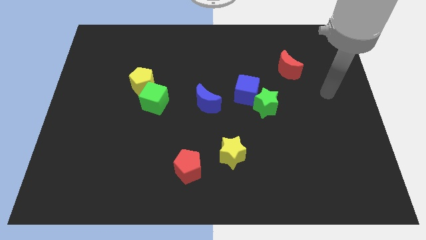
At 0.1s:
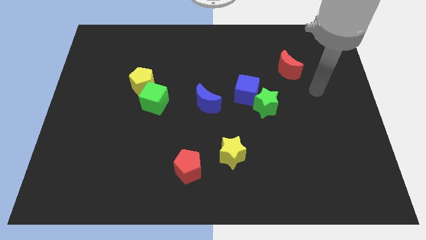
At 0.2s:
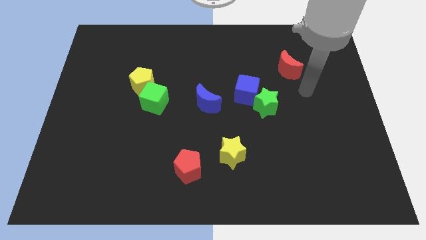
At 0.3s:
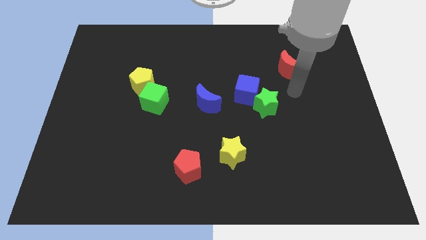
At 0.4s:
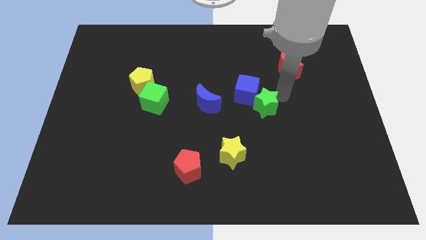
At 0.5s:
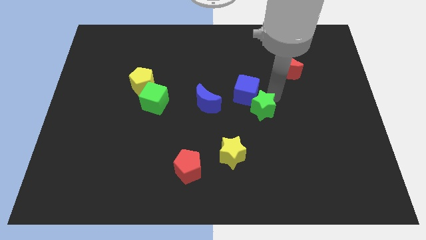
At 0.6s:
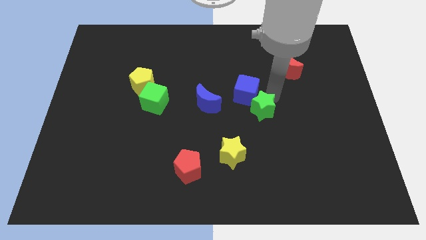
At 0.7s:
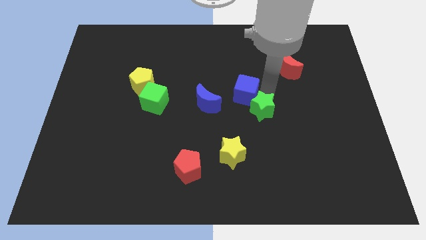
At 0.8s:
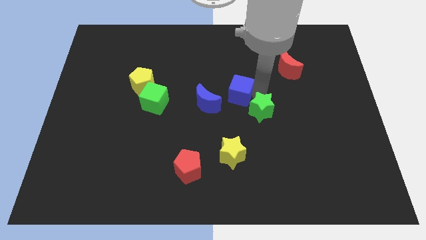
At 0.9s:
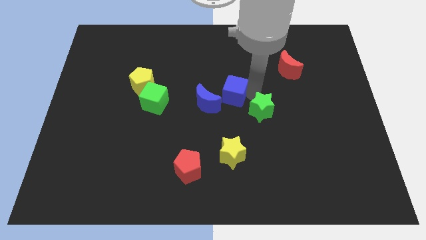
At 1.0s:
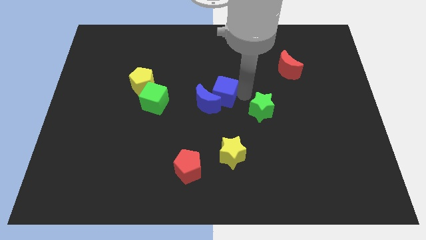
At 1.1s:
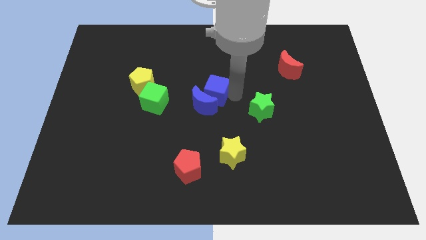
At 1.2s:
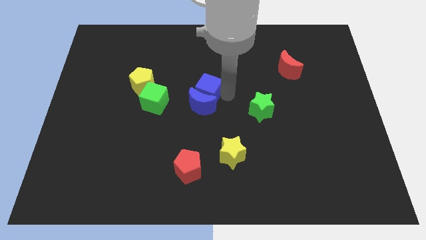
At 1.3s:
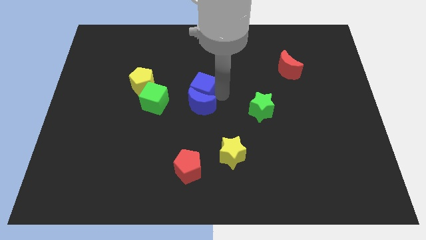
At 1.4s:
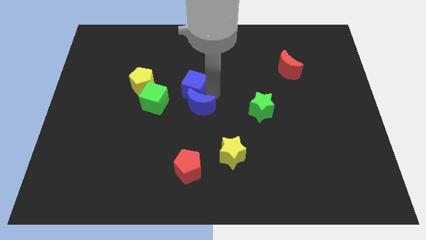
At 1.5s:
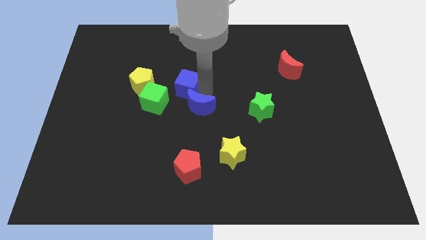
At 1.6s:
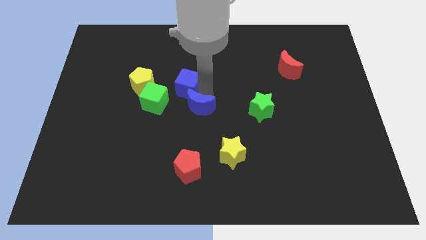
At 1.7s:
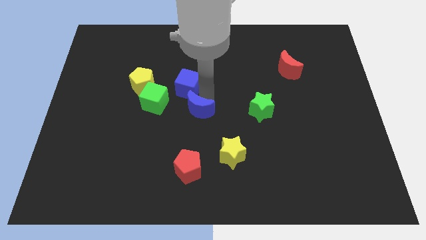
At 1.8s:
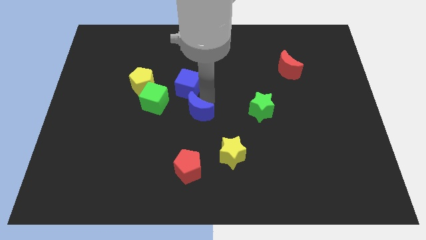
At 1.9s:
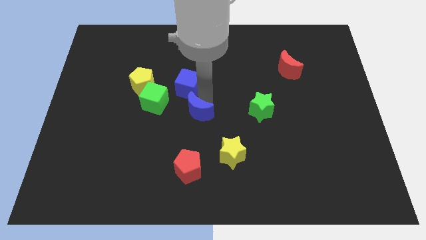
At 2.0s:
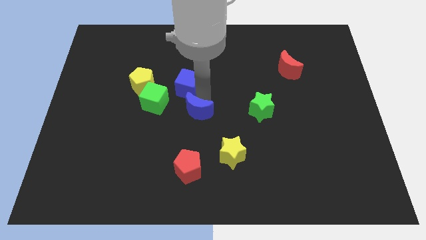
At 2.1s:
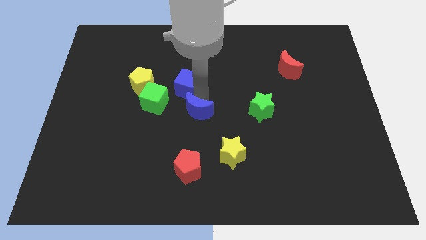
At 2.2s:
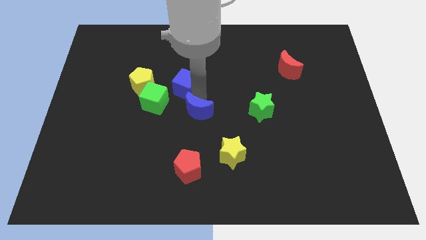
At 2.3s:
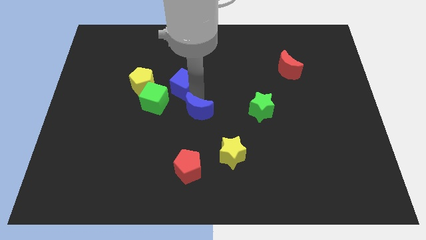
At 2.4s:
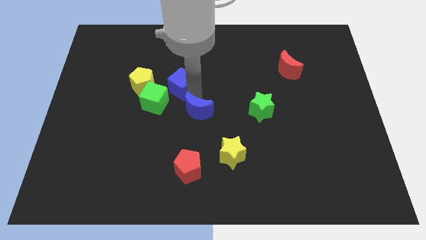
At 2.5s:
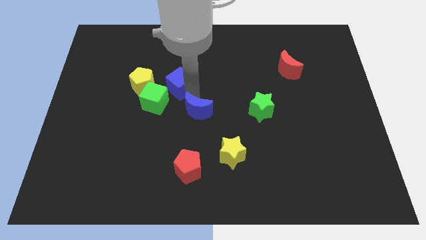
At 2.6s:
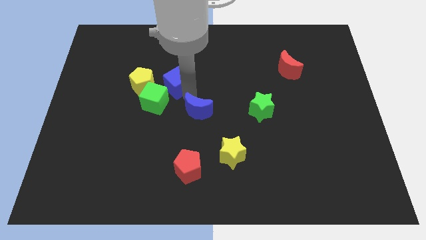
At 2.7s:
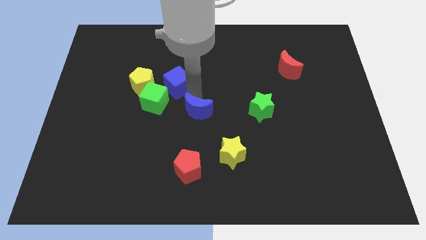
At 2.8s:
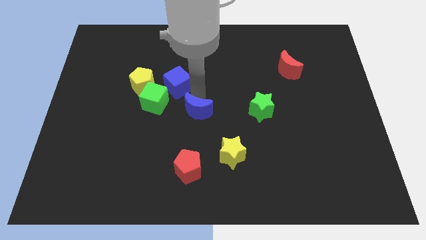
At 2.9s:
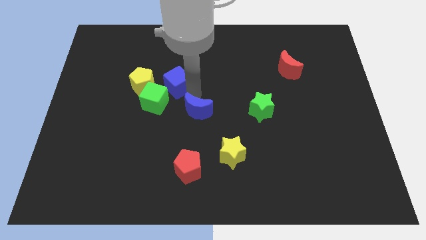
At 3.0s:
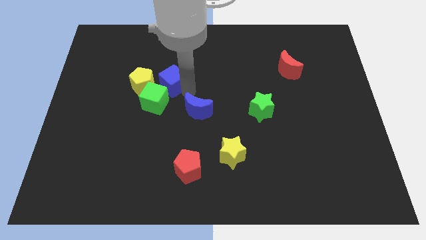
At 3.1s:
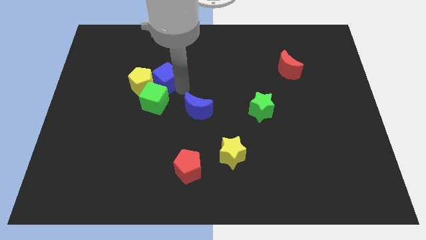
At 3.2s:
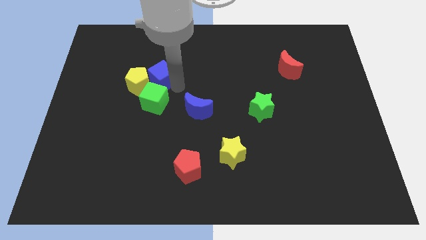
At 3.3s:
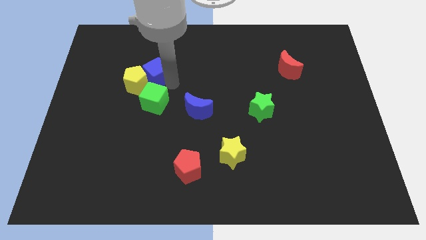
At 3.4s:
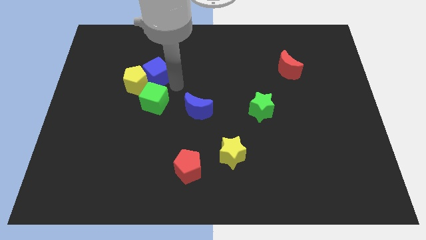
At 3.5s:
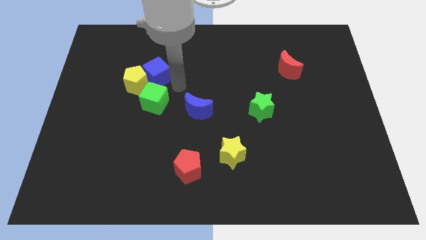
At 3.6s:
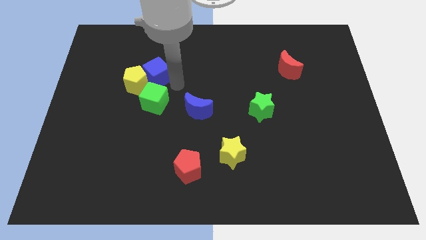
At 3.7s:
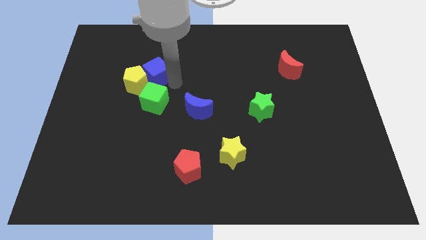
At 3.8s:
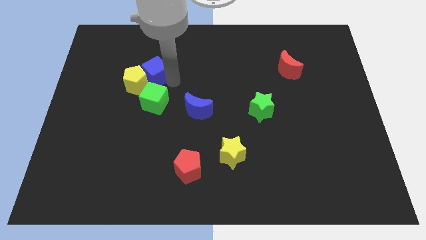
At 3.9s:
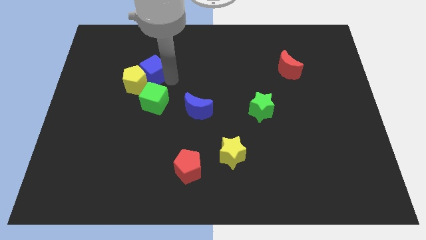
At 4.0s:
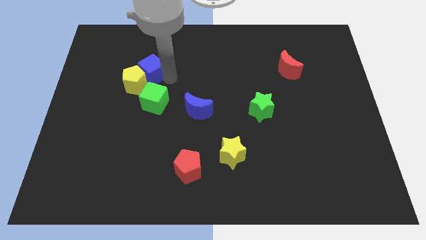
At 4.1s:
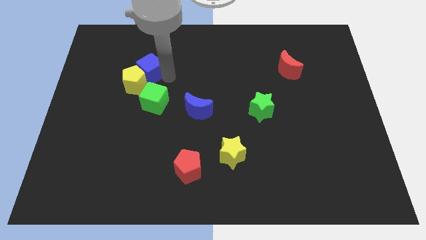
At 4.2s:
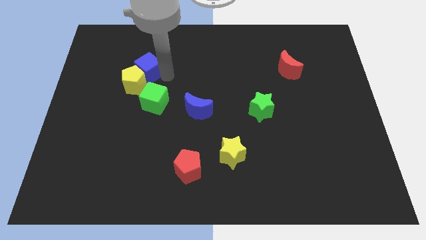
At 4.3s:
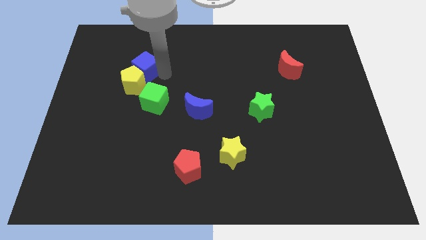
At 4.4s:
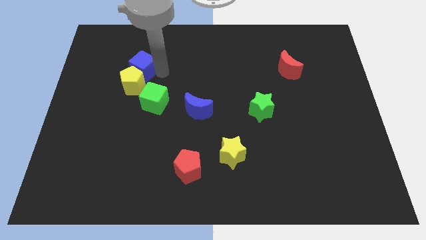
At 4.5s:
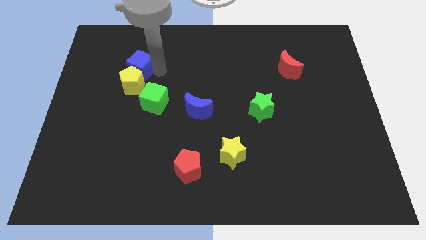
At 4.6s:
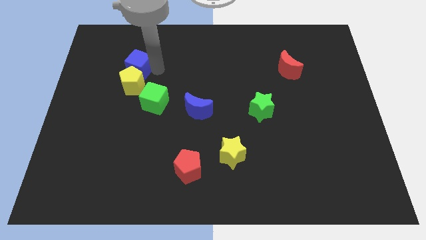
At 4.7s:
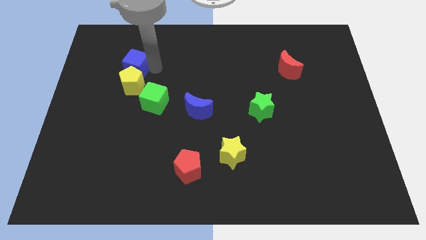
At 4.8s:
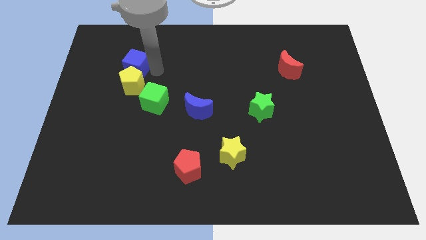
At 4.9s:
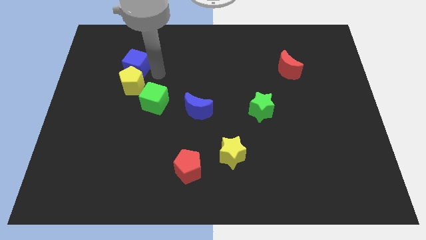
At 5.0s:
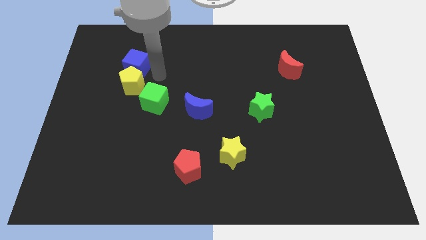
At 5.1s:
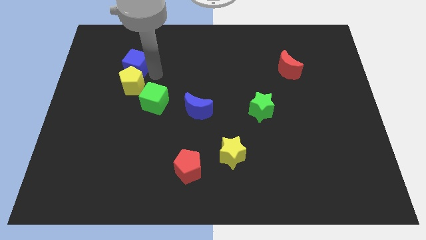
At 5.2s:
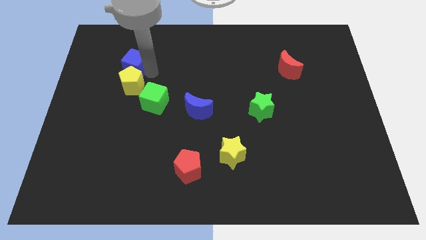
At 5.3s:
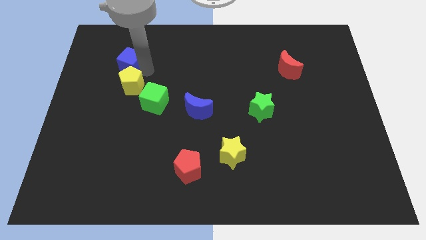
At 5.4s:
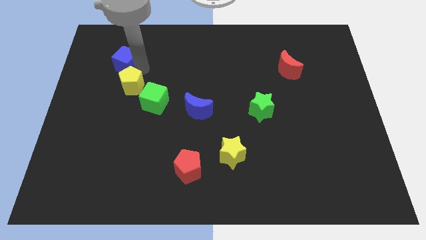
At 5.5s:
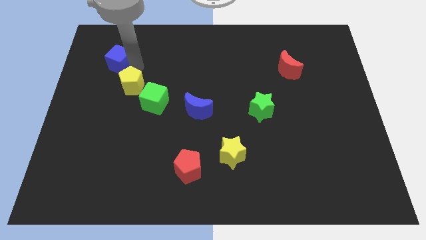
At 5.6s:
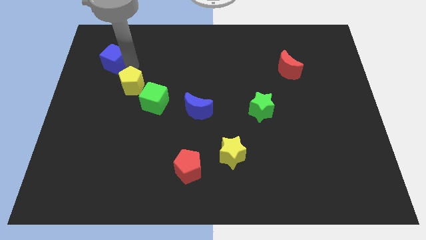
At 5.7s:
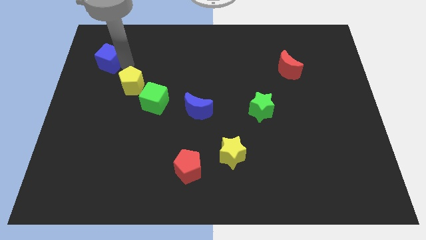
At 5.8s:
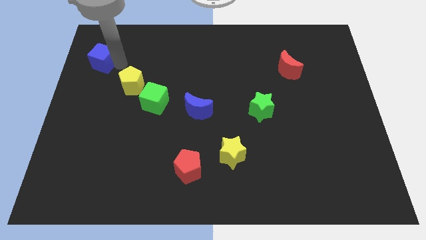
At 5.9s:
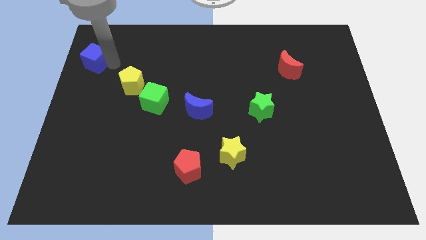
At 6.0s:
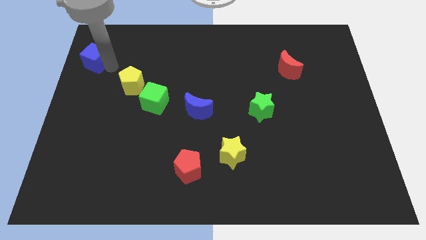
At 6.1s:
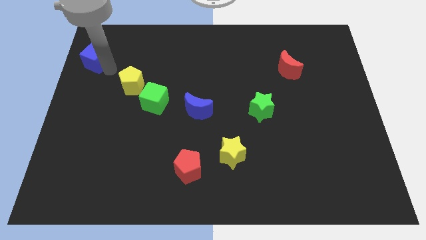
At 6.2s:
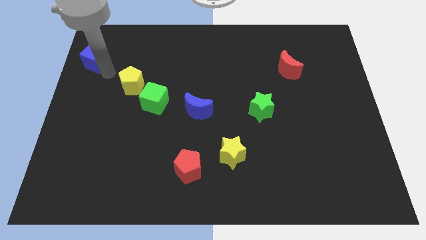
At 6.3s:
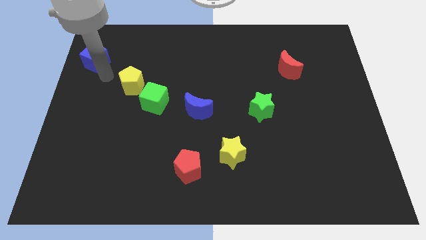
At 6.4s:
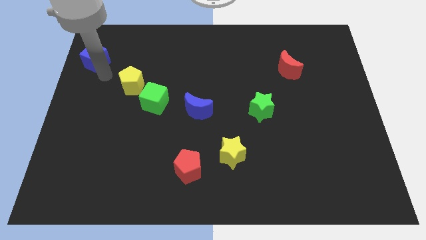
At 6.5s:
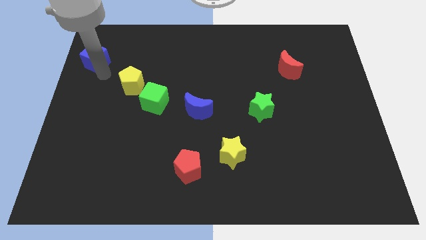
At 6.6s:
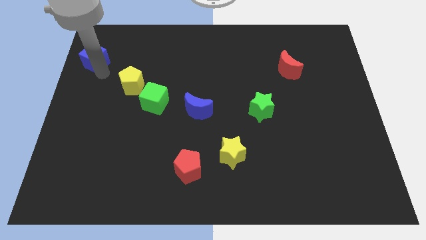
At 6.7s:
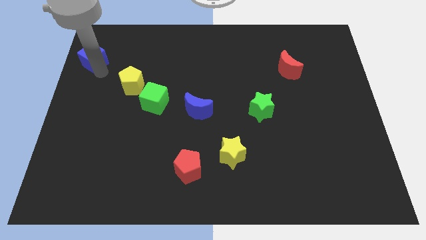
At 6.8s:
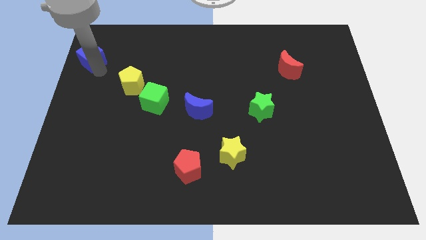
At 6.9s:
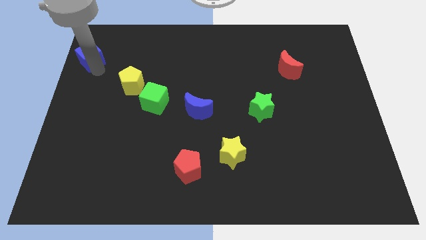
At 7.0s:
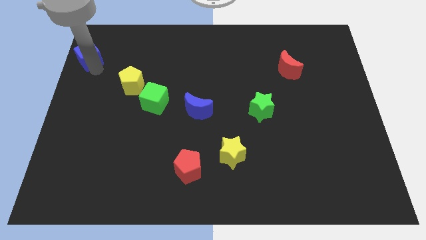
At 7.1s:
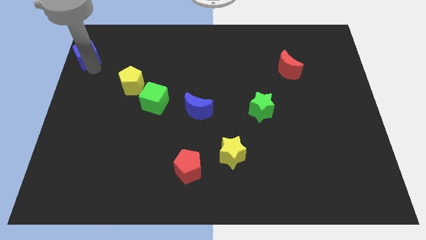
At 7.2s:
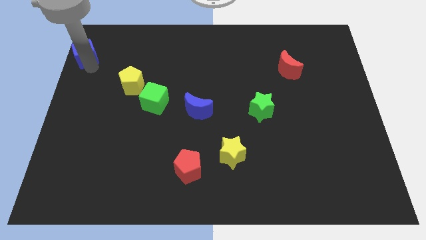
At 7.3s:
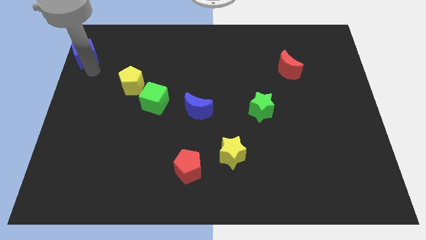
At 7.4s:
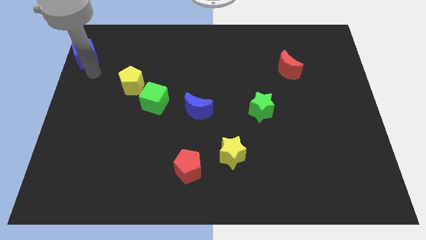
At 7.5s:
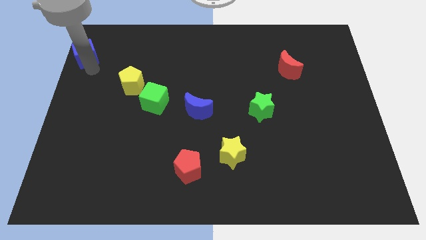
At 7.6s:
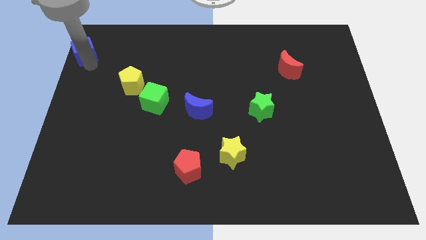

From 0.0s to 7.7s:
slide the blue cube to the top left corner

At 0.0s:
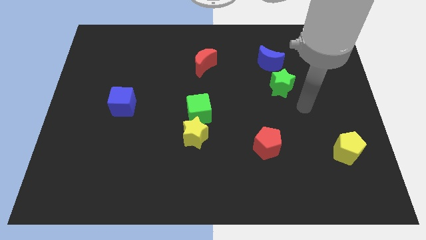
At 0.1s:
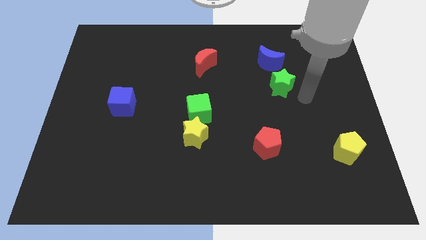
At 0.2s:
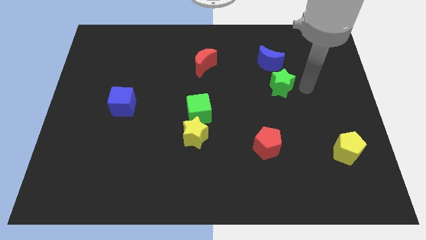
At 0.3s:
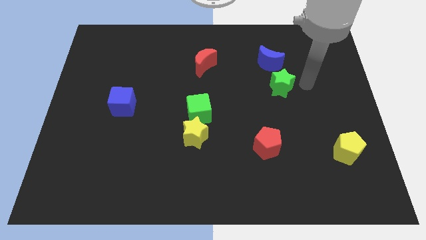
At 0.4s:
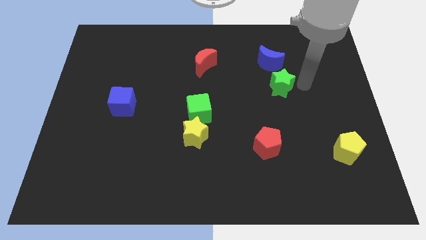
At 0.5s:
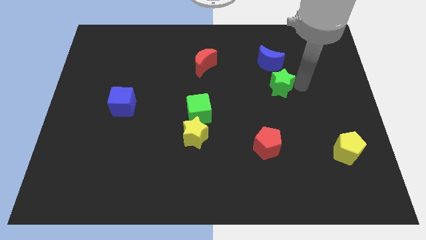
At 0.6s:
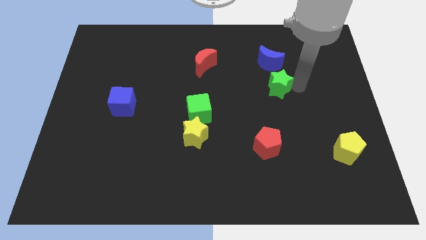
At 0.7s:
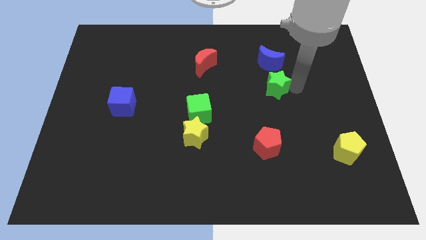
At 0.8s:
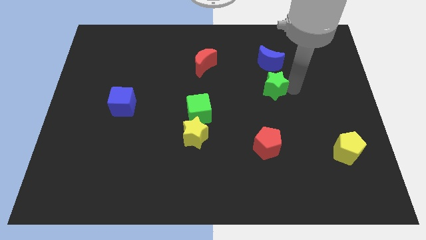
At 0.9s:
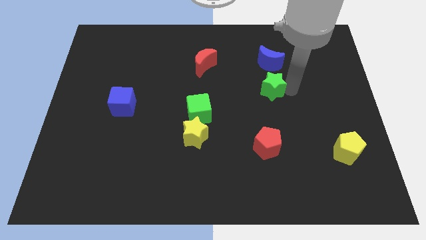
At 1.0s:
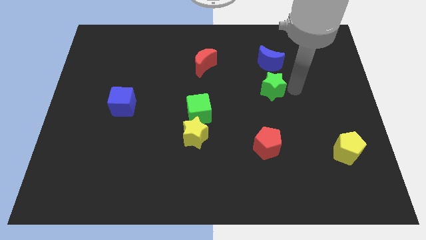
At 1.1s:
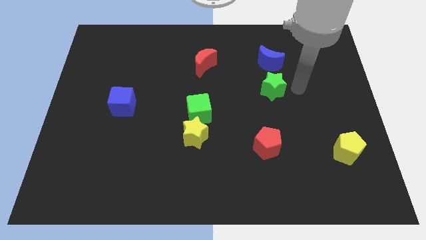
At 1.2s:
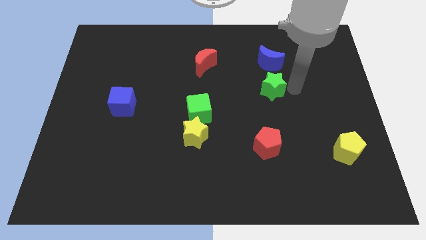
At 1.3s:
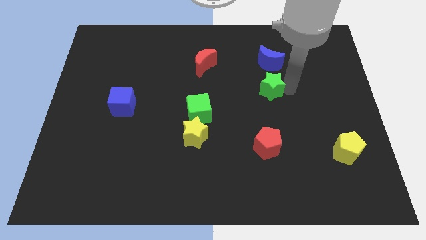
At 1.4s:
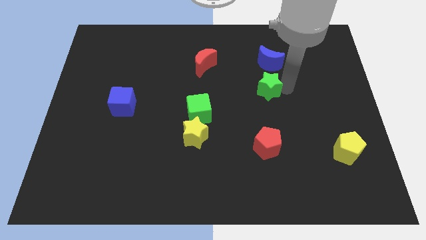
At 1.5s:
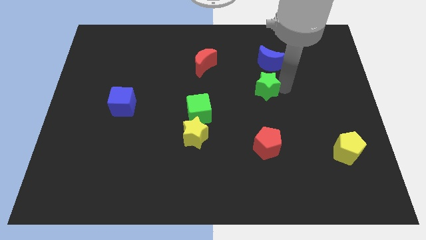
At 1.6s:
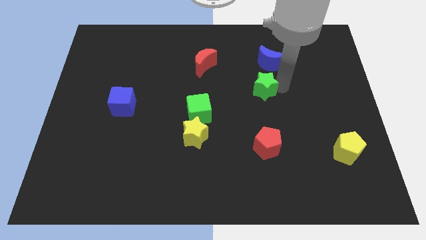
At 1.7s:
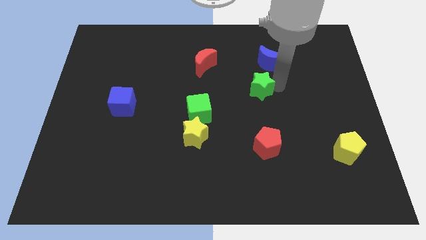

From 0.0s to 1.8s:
slide the green star to the center
